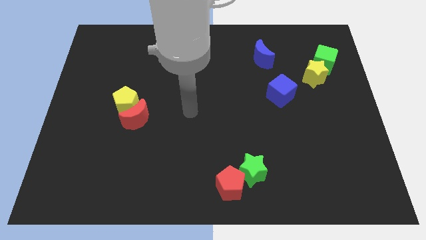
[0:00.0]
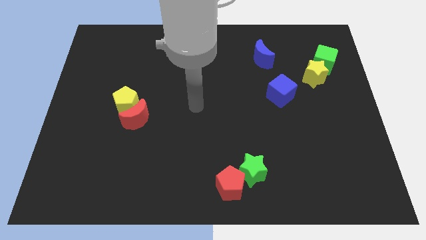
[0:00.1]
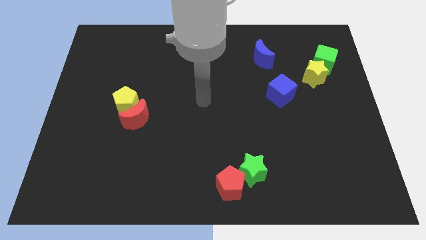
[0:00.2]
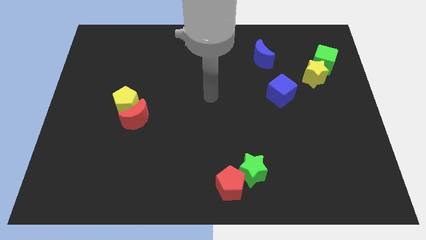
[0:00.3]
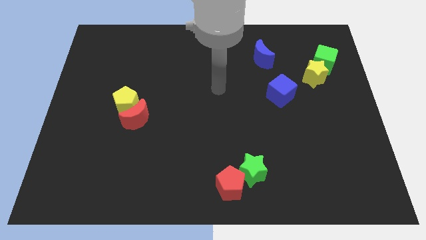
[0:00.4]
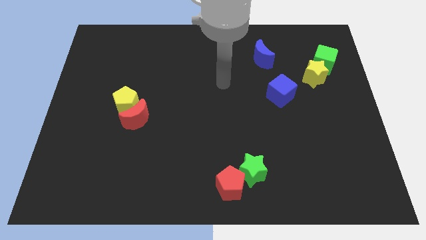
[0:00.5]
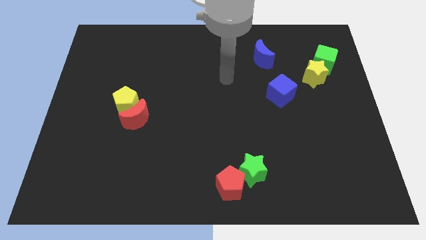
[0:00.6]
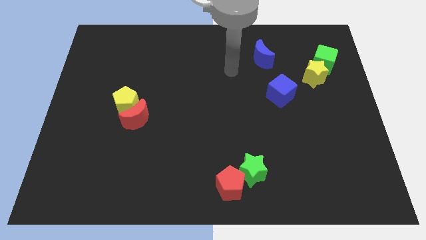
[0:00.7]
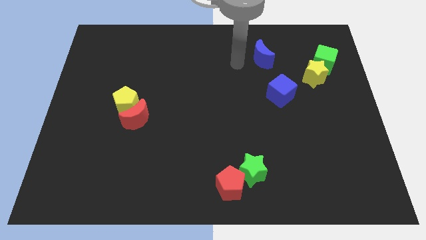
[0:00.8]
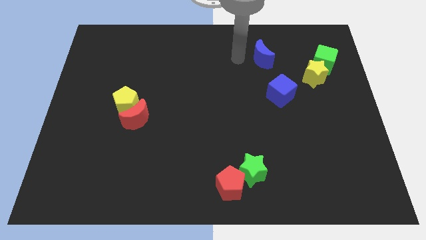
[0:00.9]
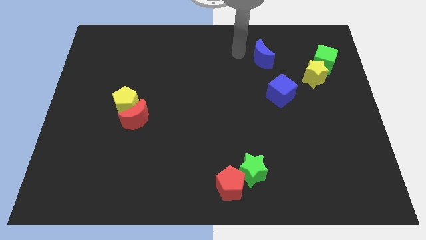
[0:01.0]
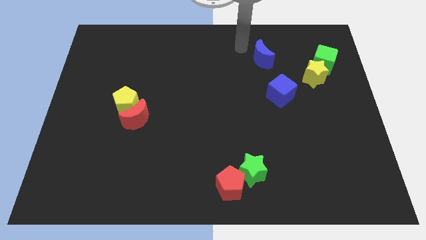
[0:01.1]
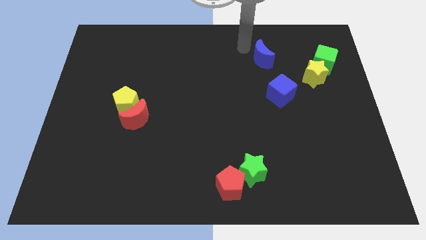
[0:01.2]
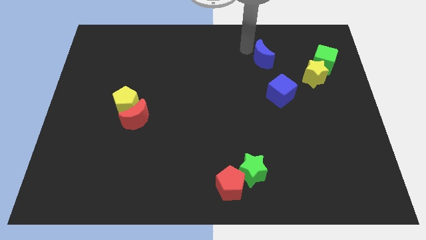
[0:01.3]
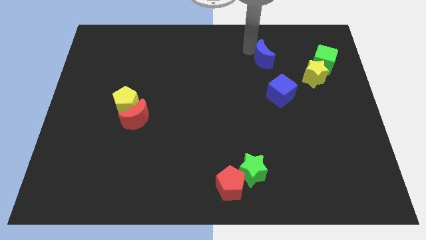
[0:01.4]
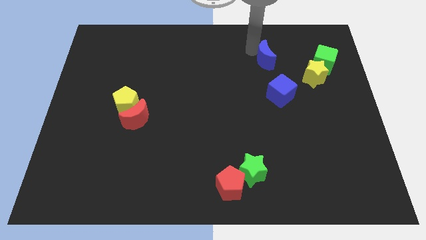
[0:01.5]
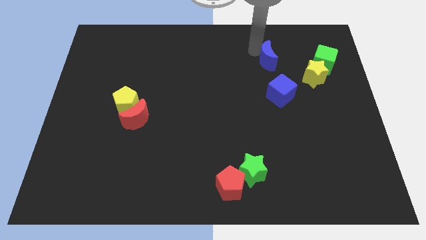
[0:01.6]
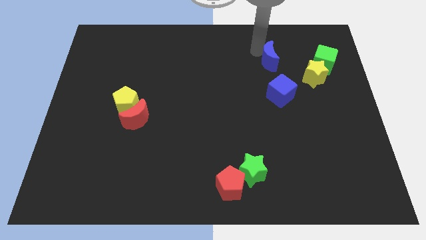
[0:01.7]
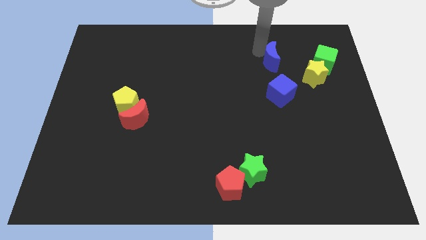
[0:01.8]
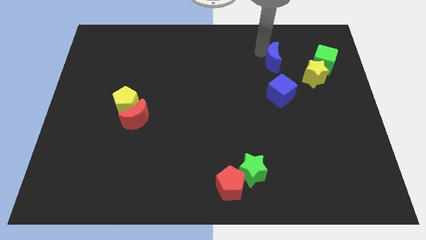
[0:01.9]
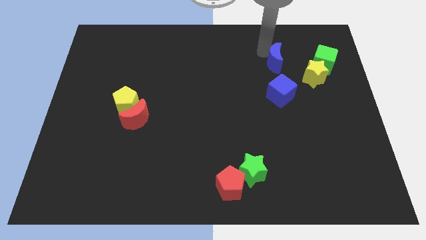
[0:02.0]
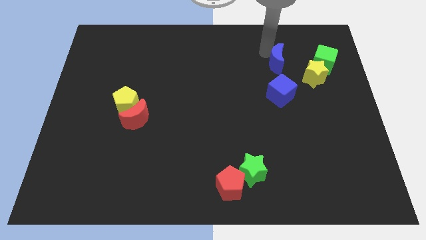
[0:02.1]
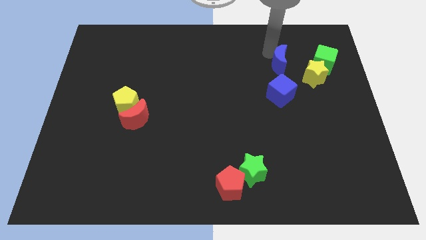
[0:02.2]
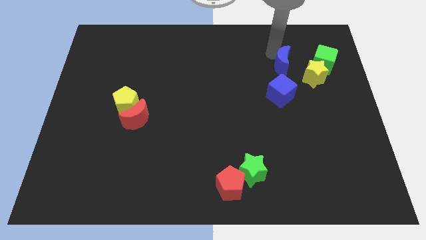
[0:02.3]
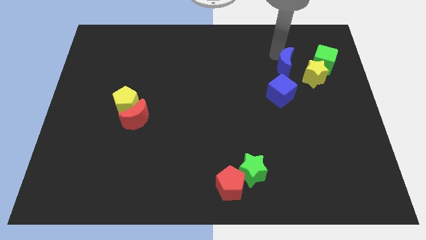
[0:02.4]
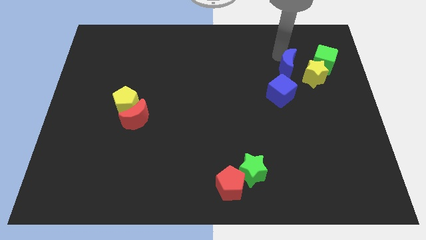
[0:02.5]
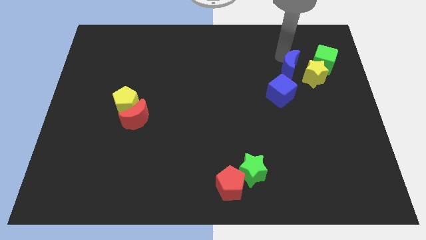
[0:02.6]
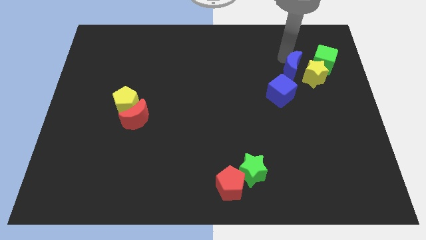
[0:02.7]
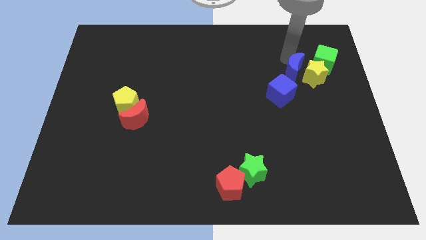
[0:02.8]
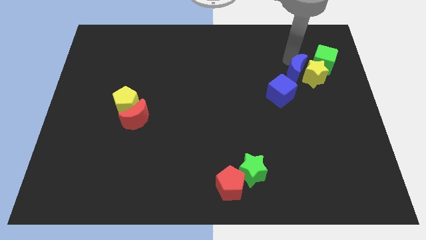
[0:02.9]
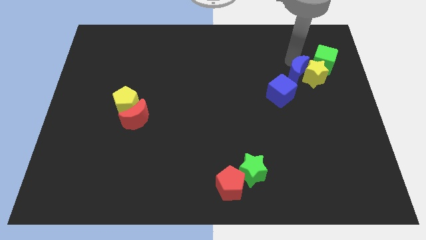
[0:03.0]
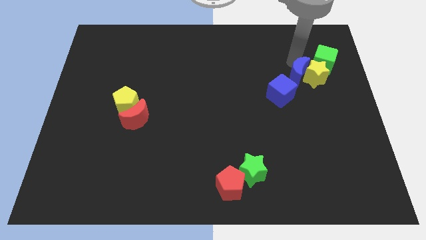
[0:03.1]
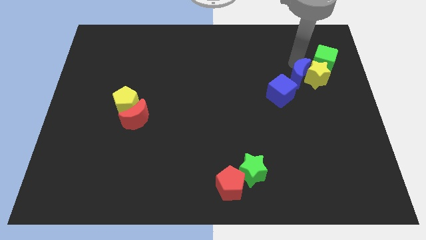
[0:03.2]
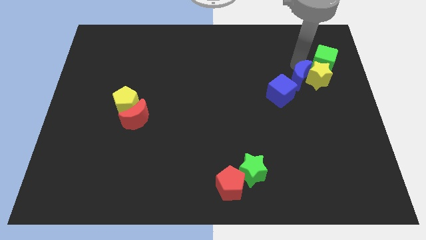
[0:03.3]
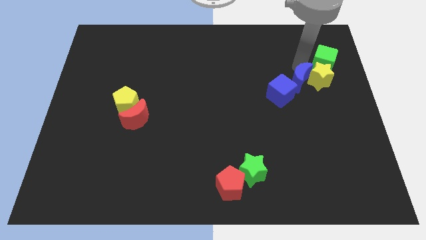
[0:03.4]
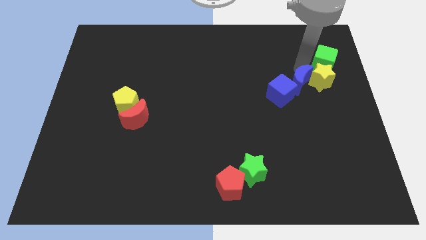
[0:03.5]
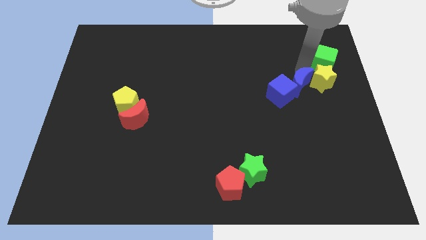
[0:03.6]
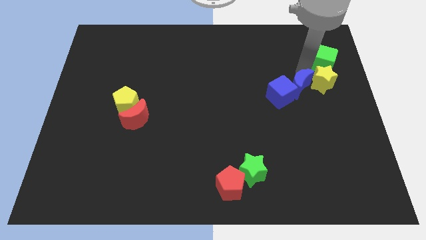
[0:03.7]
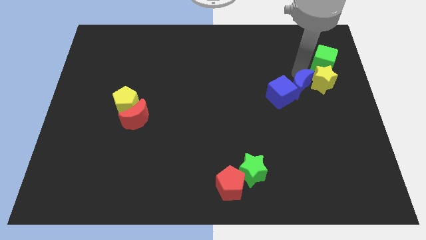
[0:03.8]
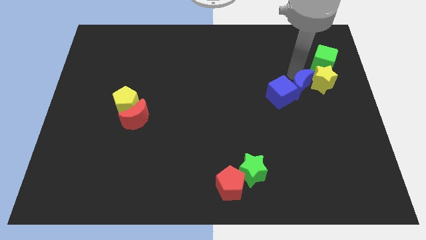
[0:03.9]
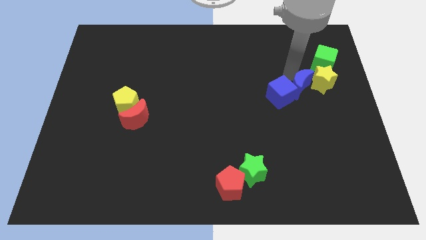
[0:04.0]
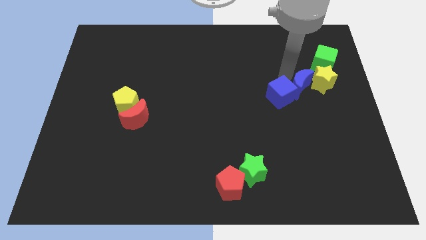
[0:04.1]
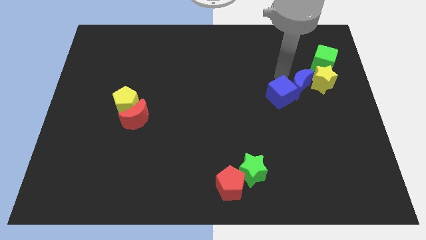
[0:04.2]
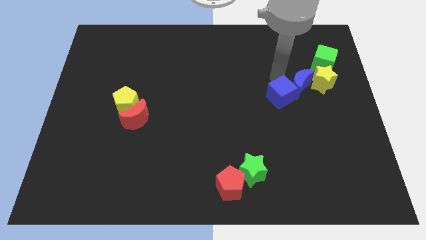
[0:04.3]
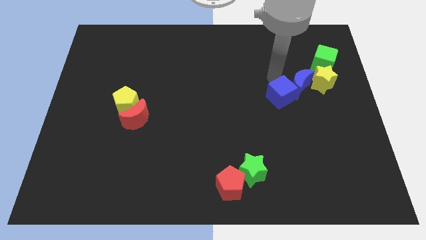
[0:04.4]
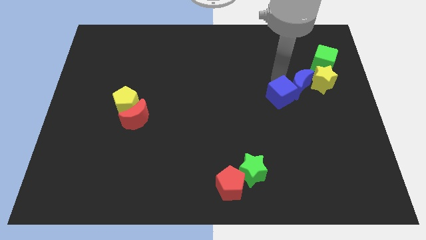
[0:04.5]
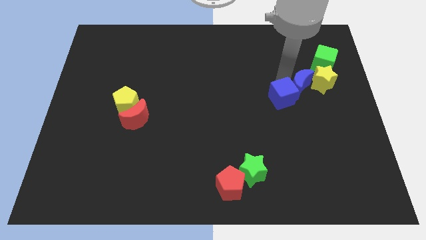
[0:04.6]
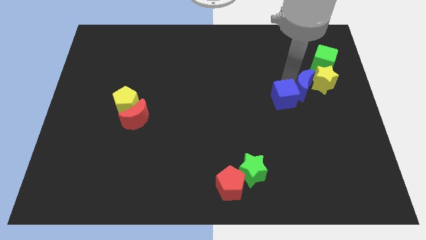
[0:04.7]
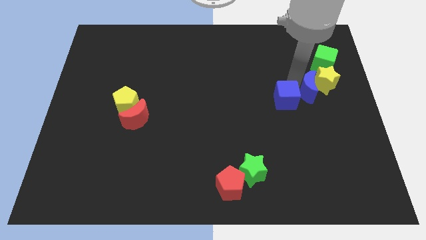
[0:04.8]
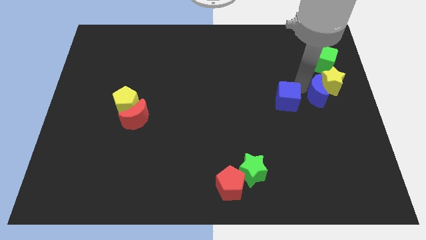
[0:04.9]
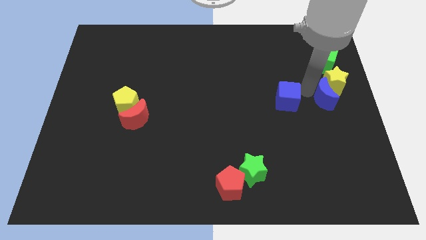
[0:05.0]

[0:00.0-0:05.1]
move the blue moon to the right side

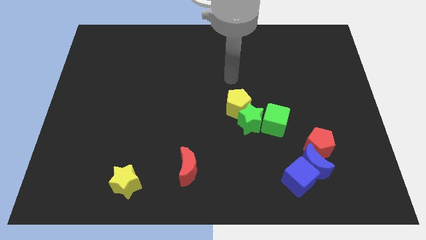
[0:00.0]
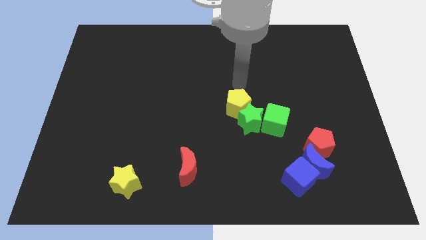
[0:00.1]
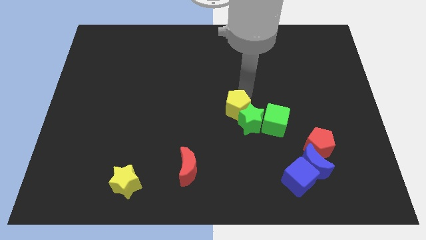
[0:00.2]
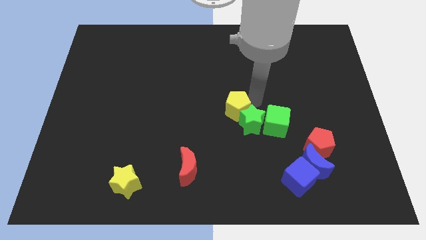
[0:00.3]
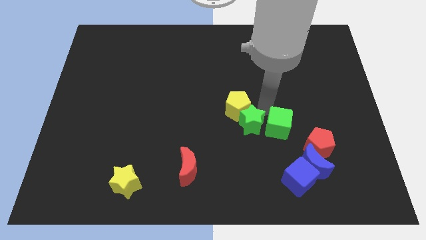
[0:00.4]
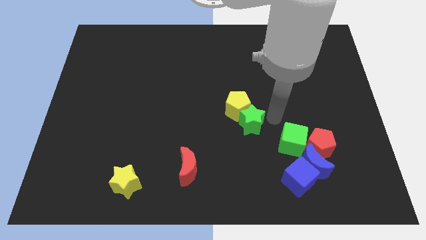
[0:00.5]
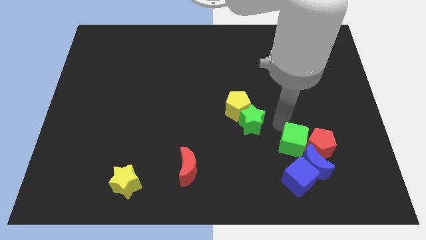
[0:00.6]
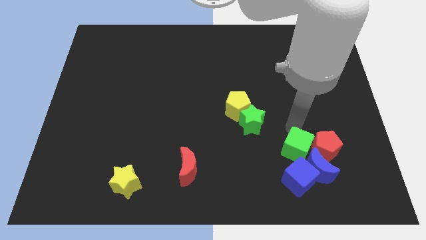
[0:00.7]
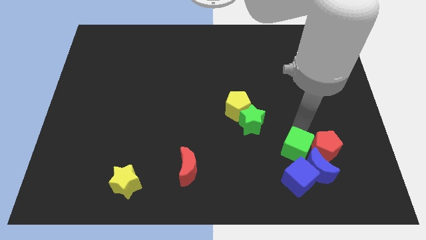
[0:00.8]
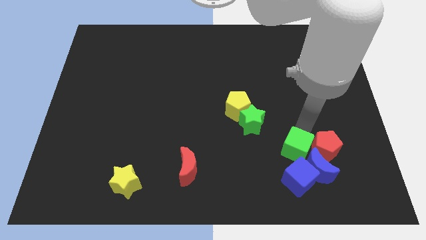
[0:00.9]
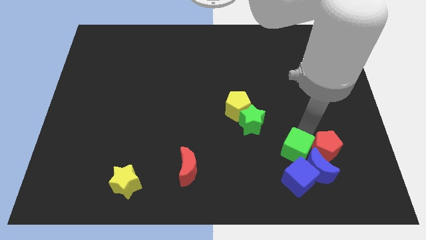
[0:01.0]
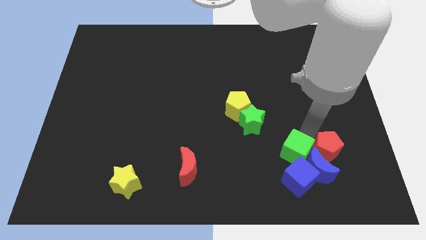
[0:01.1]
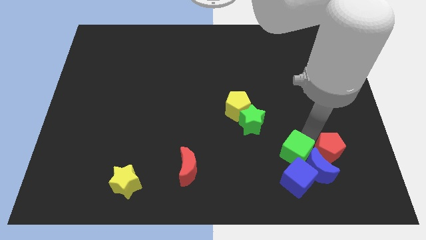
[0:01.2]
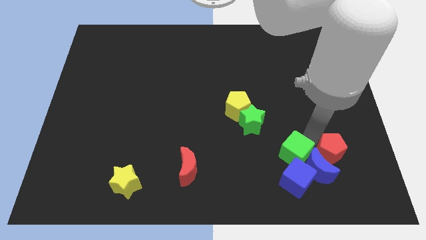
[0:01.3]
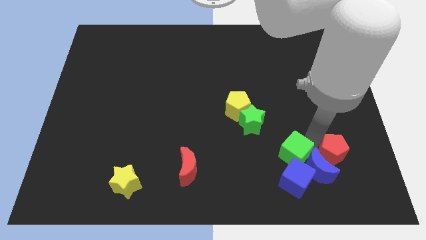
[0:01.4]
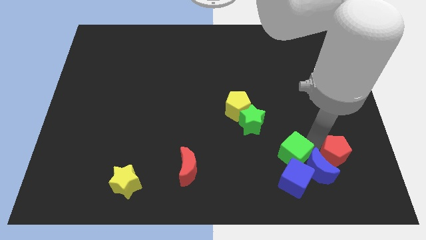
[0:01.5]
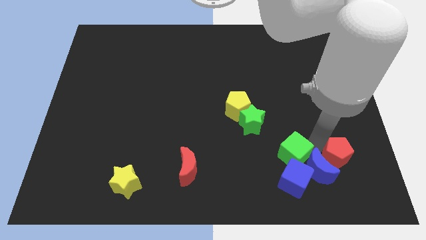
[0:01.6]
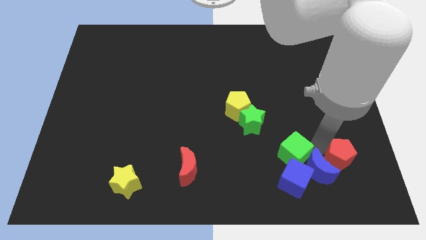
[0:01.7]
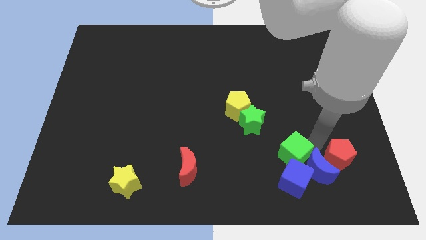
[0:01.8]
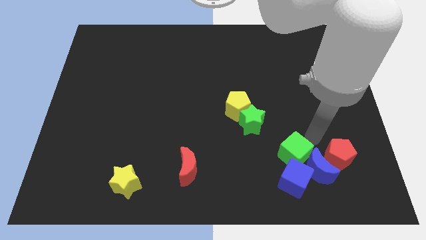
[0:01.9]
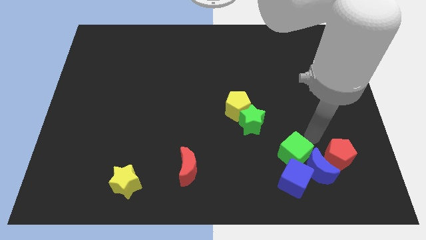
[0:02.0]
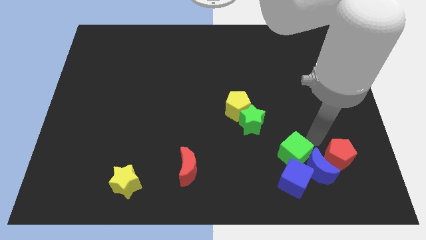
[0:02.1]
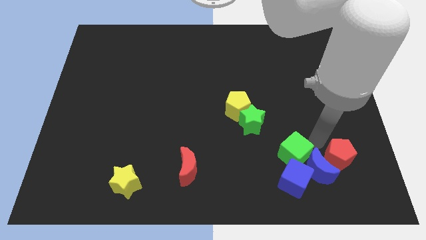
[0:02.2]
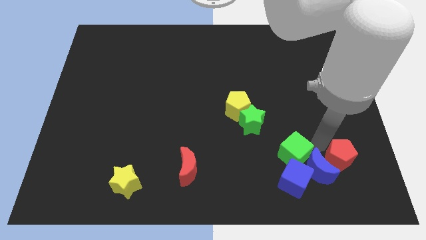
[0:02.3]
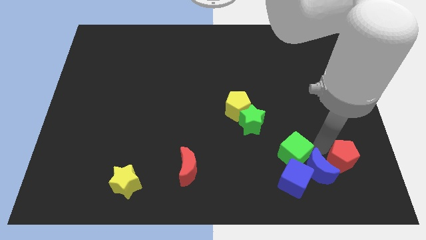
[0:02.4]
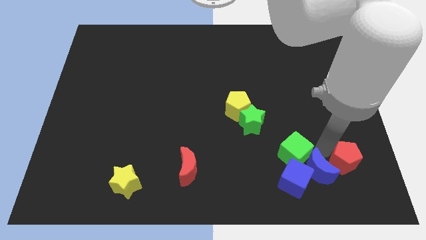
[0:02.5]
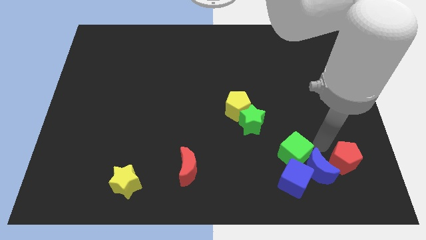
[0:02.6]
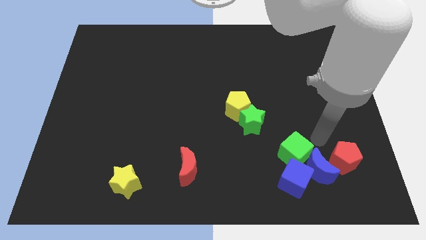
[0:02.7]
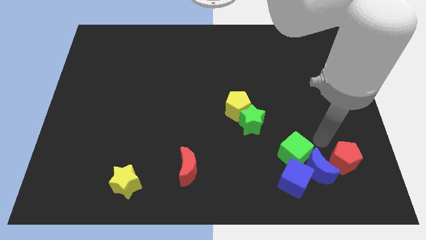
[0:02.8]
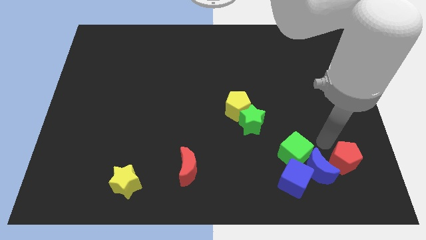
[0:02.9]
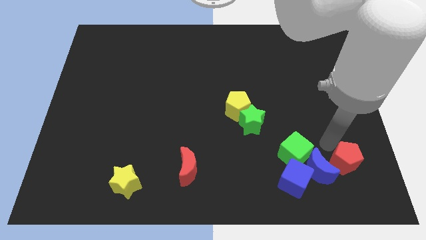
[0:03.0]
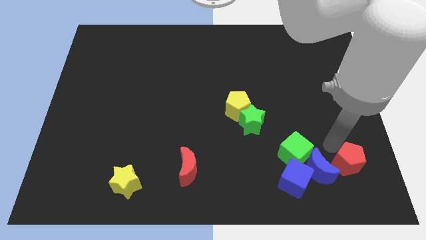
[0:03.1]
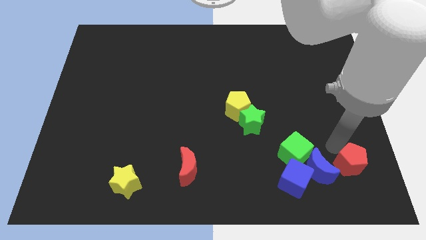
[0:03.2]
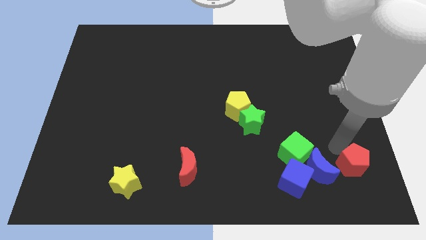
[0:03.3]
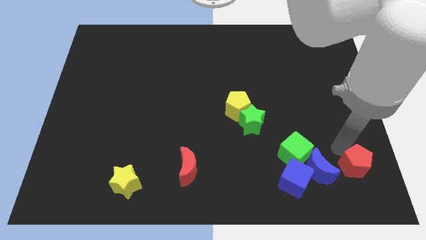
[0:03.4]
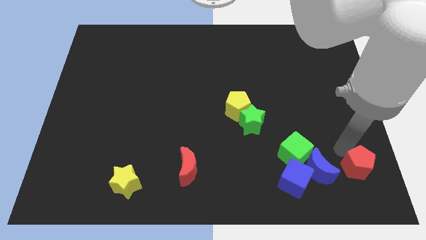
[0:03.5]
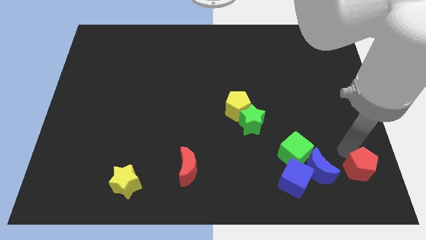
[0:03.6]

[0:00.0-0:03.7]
push the red pentagon to the bottom right
